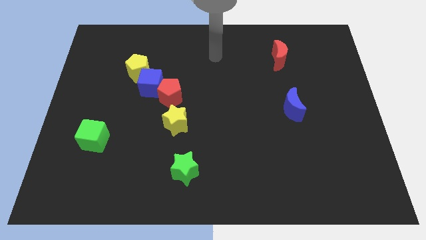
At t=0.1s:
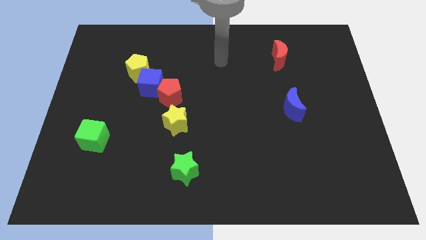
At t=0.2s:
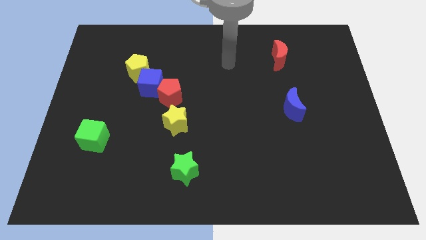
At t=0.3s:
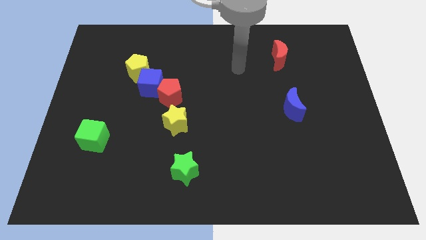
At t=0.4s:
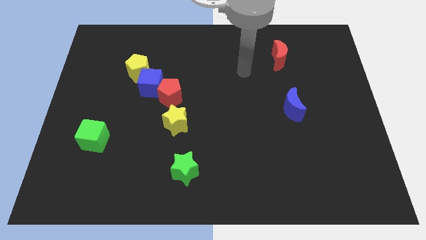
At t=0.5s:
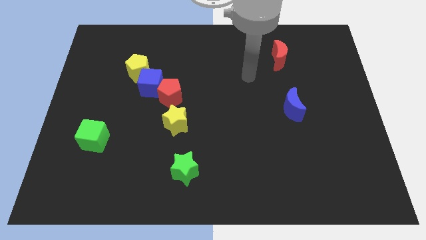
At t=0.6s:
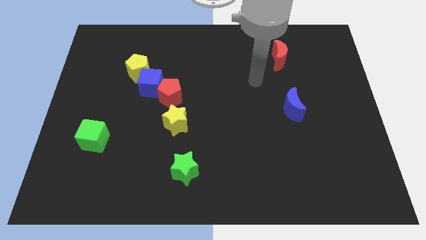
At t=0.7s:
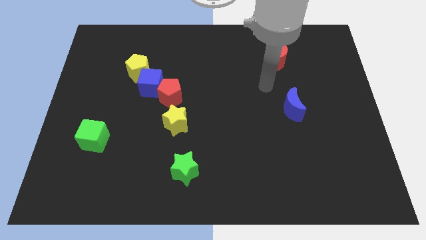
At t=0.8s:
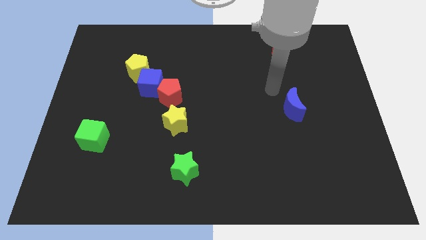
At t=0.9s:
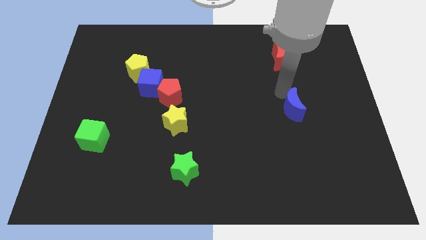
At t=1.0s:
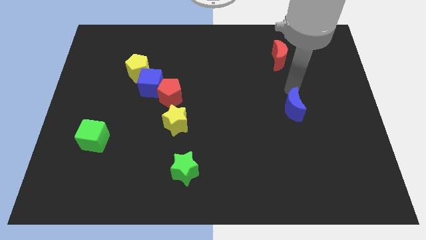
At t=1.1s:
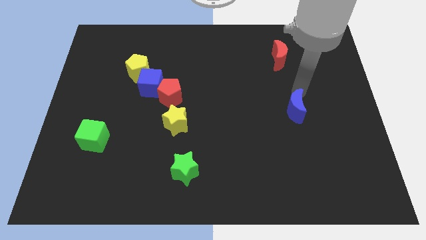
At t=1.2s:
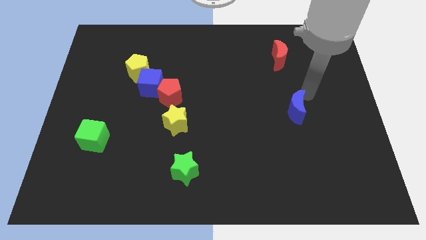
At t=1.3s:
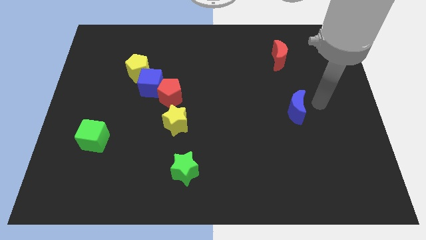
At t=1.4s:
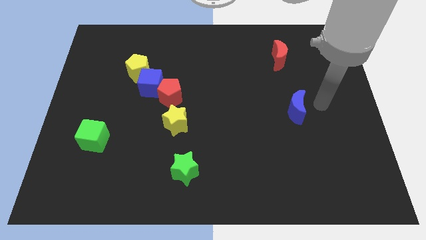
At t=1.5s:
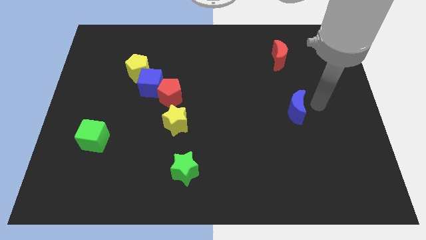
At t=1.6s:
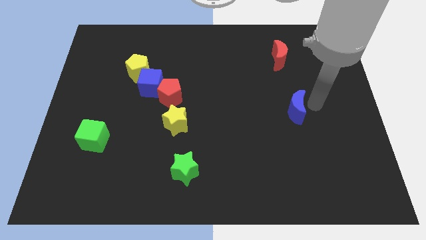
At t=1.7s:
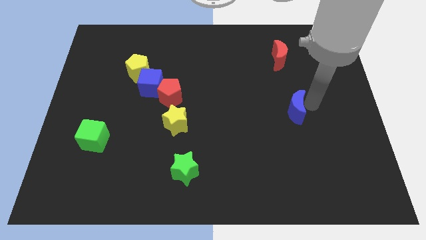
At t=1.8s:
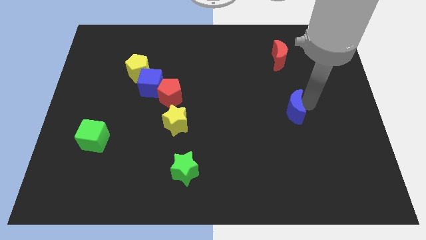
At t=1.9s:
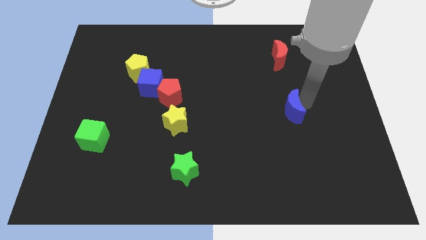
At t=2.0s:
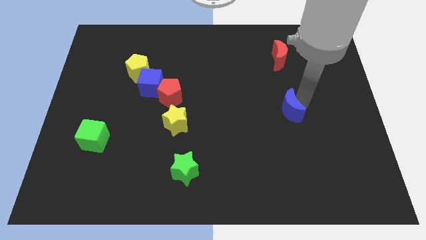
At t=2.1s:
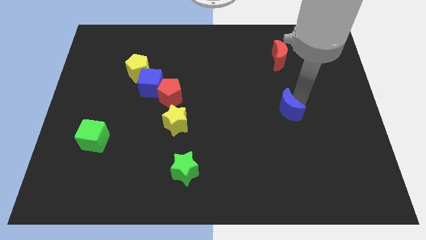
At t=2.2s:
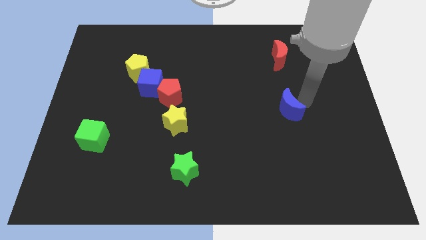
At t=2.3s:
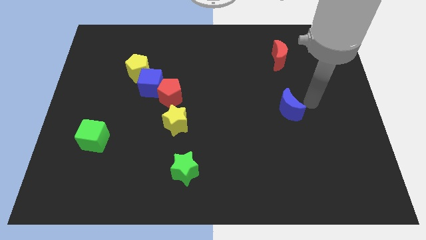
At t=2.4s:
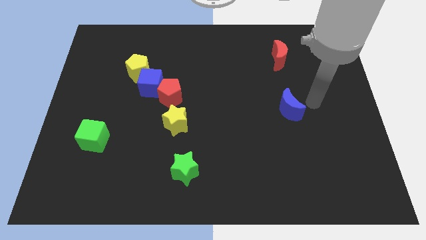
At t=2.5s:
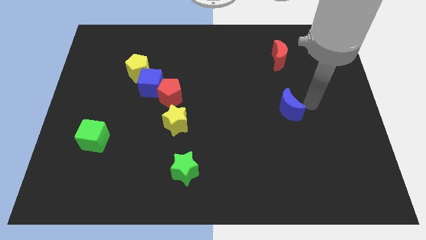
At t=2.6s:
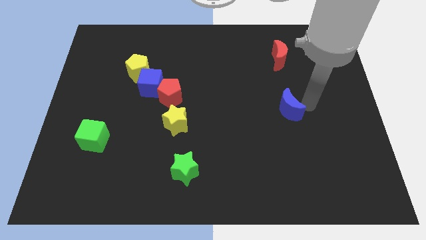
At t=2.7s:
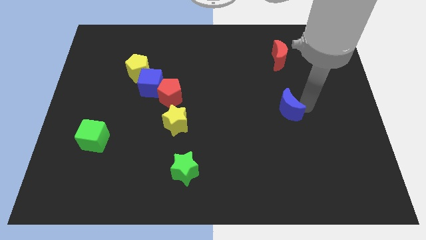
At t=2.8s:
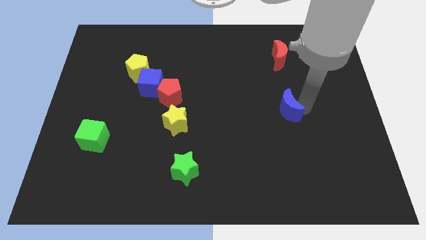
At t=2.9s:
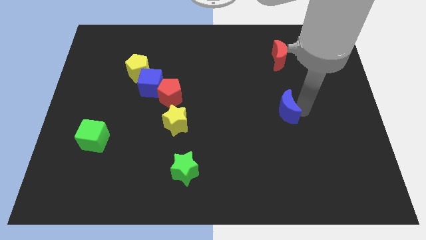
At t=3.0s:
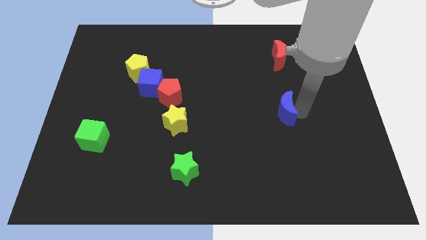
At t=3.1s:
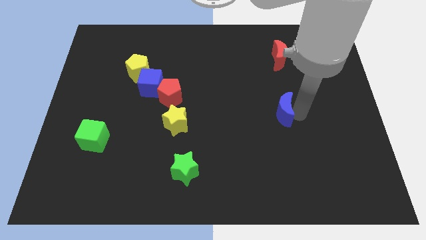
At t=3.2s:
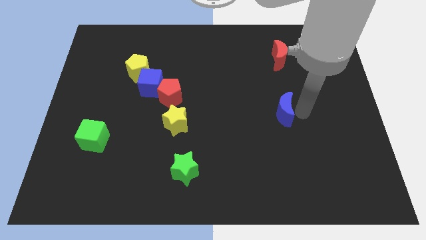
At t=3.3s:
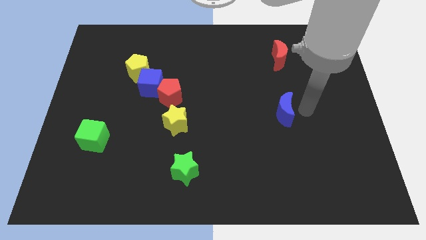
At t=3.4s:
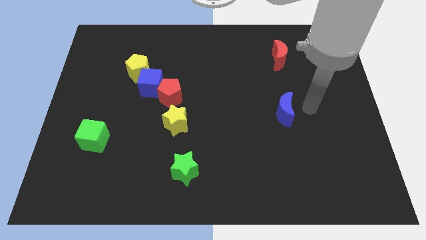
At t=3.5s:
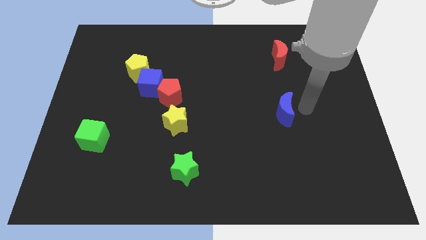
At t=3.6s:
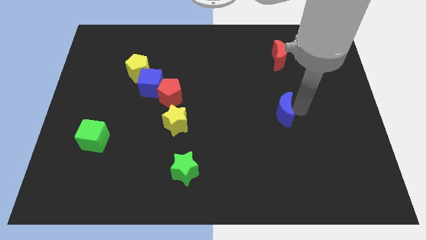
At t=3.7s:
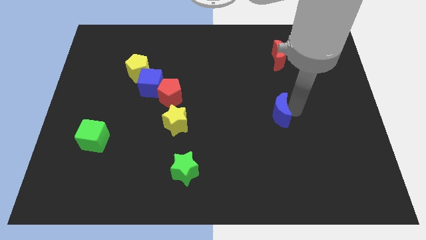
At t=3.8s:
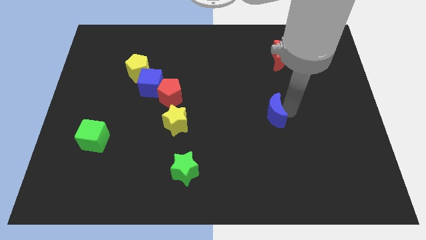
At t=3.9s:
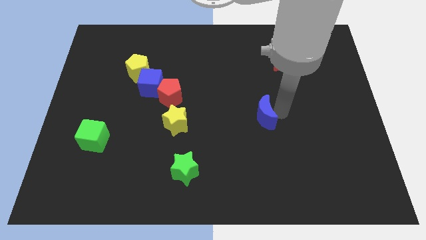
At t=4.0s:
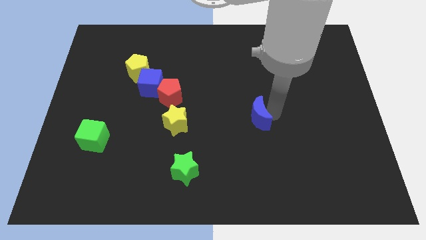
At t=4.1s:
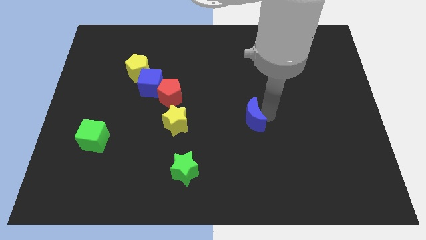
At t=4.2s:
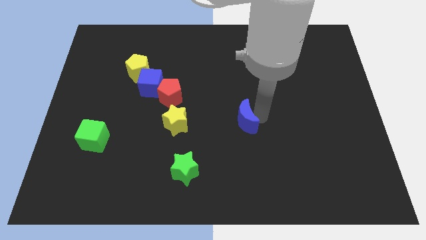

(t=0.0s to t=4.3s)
move the blue moon to the right side of the yellow star

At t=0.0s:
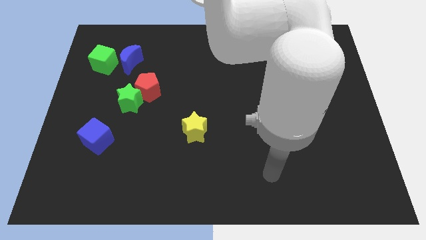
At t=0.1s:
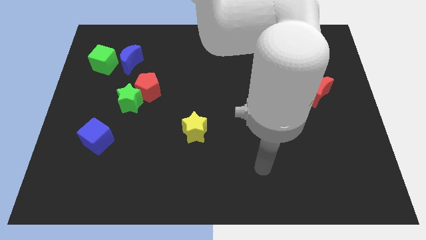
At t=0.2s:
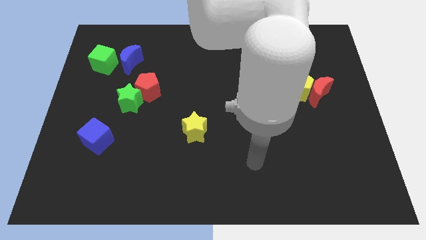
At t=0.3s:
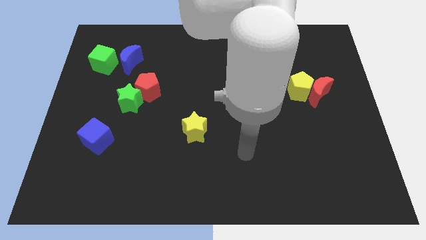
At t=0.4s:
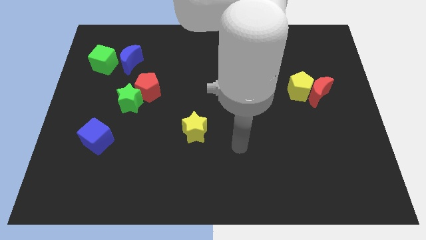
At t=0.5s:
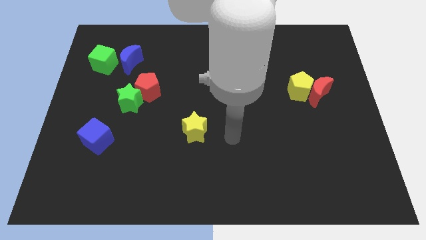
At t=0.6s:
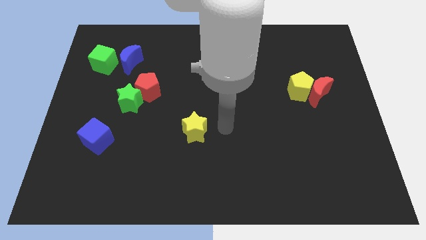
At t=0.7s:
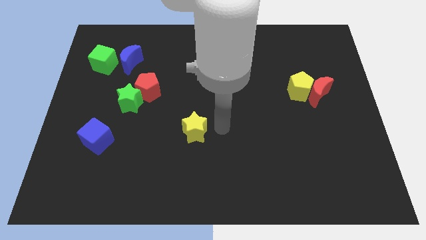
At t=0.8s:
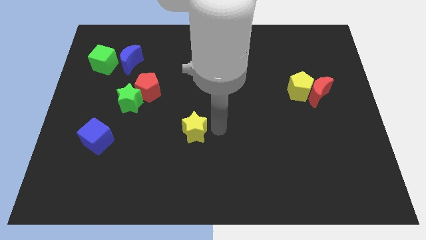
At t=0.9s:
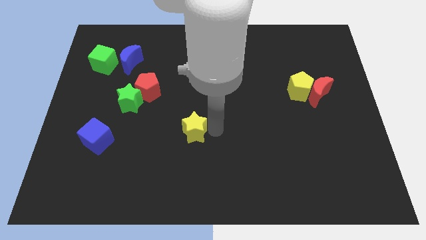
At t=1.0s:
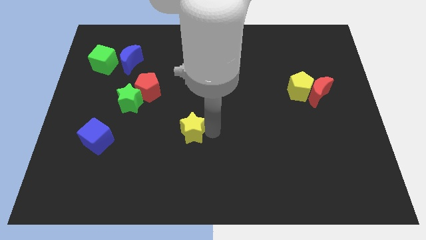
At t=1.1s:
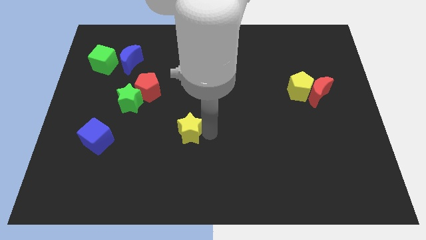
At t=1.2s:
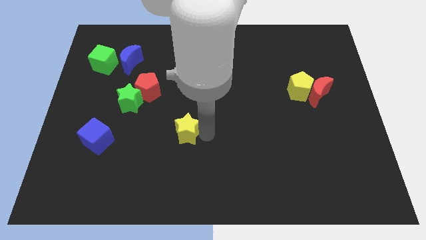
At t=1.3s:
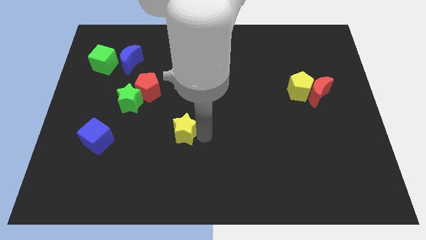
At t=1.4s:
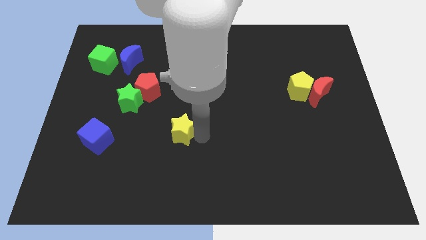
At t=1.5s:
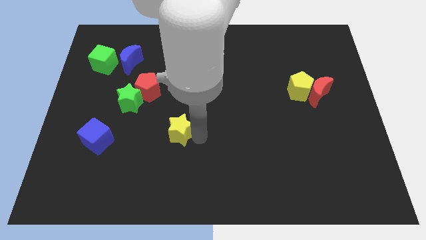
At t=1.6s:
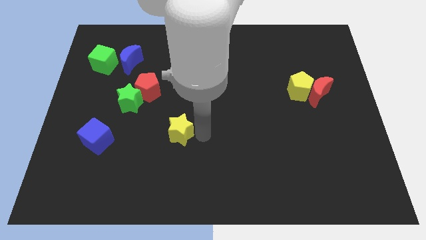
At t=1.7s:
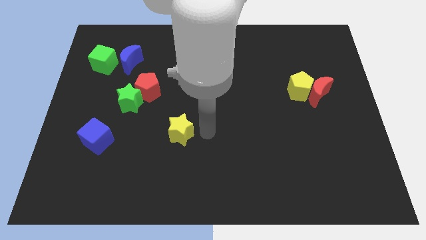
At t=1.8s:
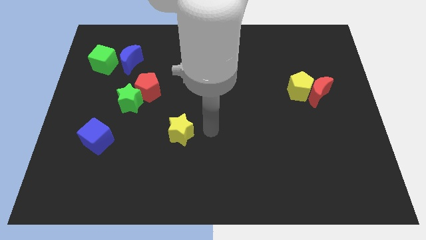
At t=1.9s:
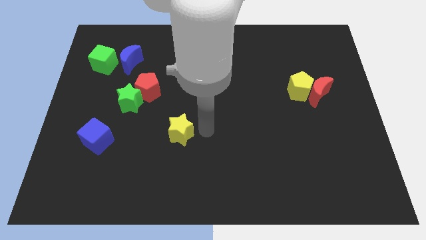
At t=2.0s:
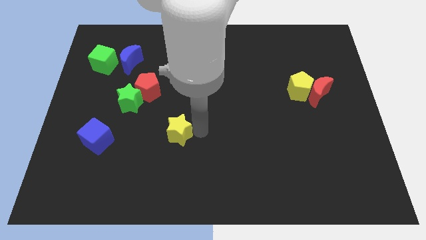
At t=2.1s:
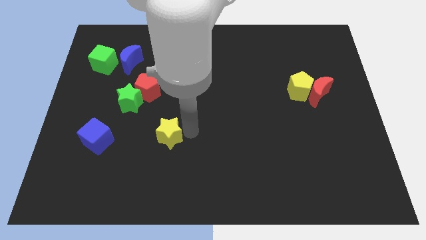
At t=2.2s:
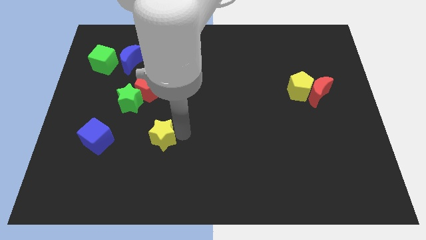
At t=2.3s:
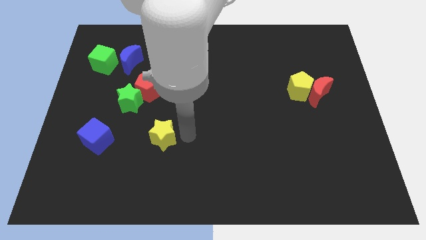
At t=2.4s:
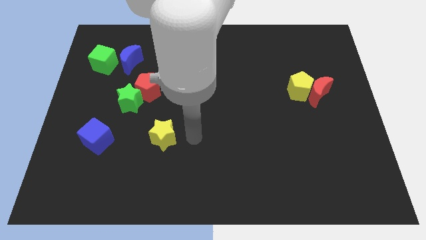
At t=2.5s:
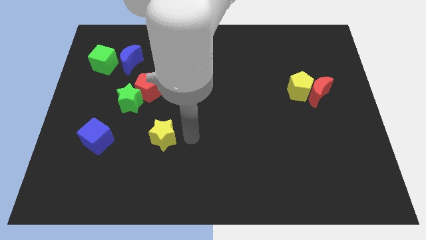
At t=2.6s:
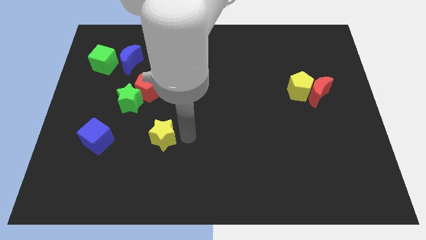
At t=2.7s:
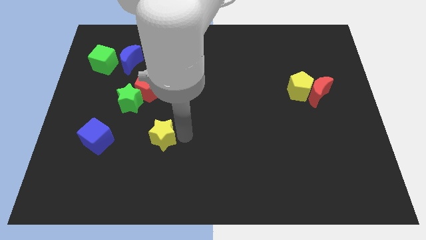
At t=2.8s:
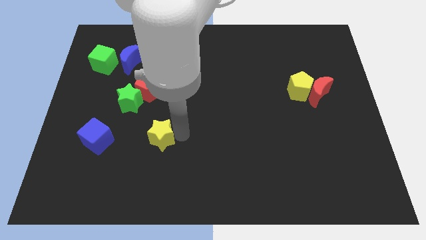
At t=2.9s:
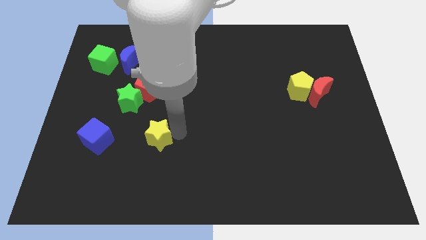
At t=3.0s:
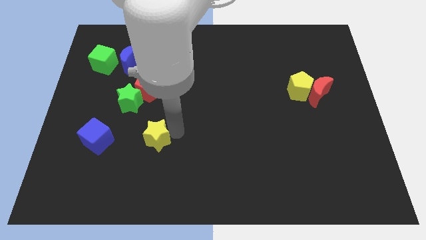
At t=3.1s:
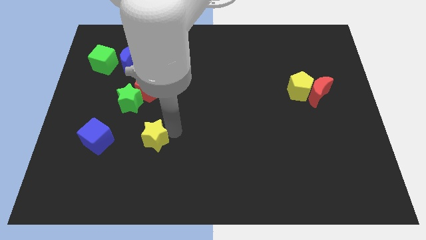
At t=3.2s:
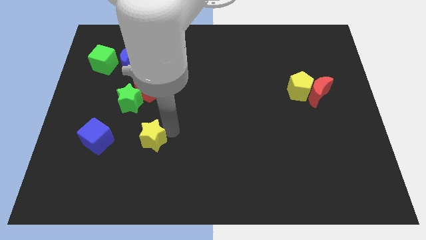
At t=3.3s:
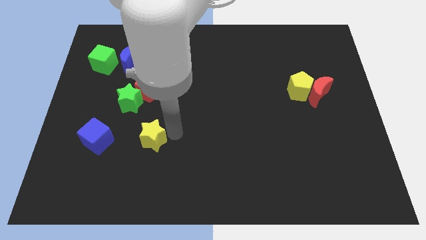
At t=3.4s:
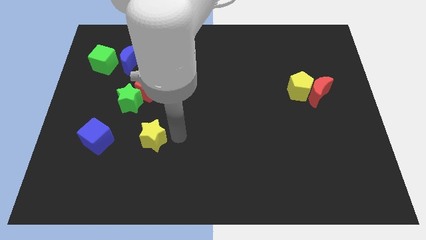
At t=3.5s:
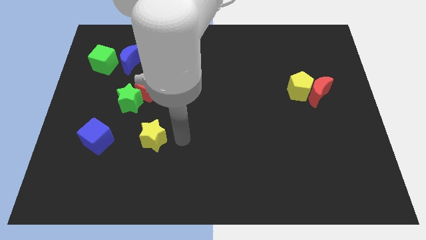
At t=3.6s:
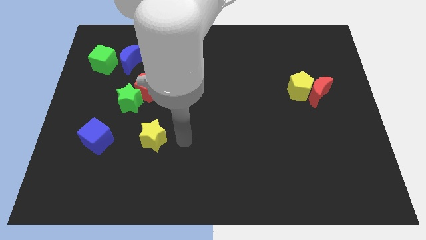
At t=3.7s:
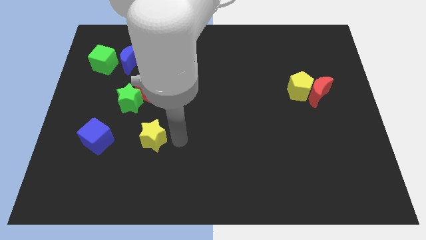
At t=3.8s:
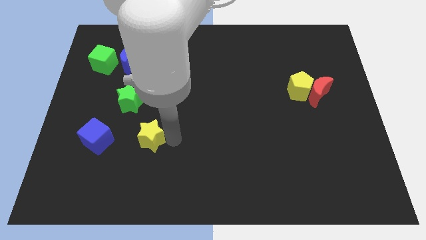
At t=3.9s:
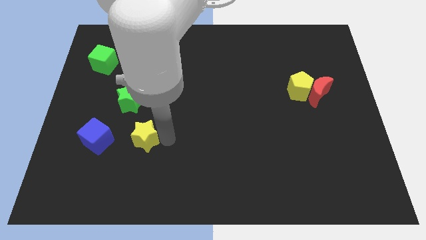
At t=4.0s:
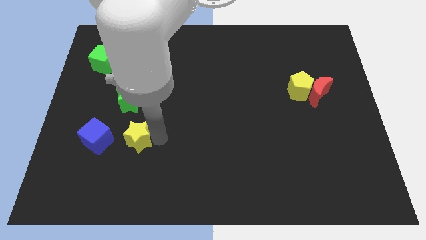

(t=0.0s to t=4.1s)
slide the yellow star to the bottom side of the green star
